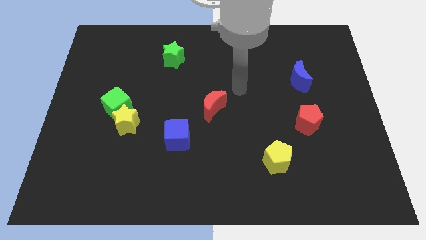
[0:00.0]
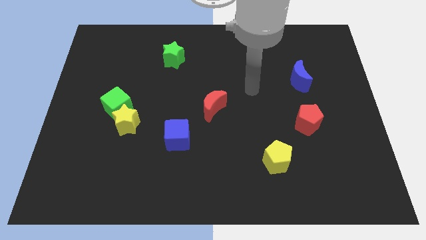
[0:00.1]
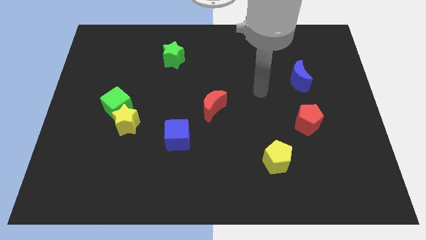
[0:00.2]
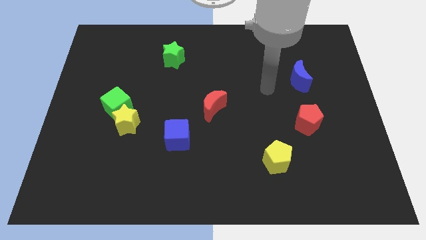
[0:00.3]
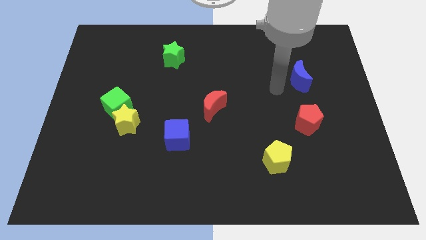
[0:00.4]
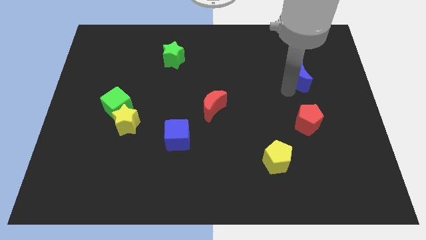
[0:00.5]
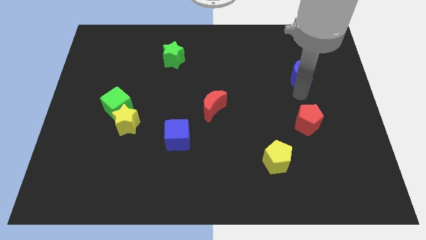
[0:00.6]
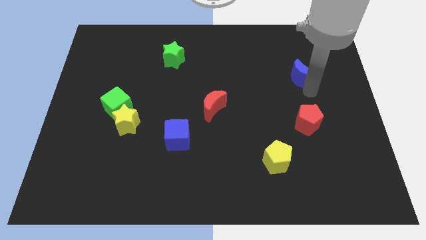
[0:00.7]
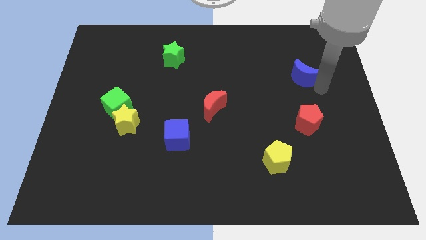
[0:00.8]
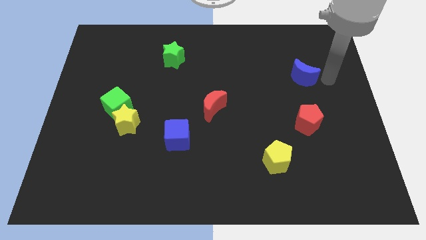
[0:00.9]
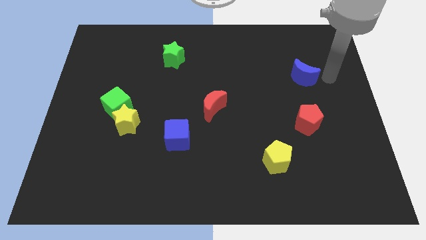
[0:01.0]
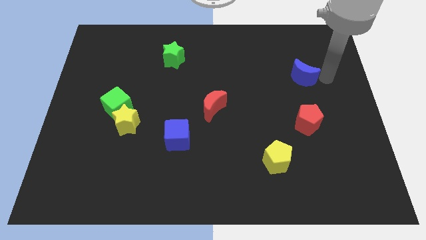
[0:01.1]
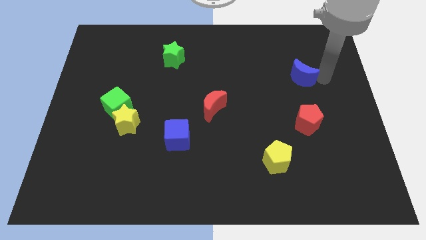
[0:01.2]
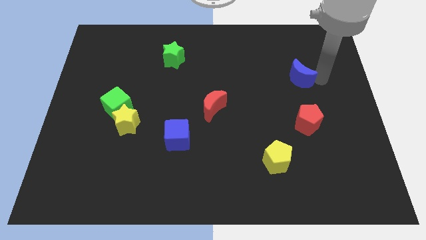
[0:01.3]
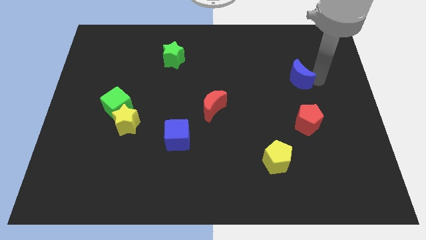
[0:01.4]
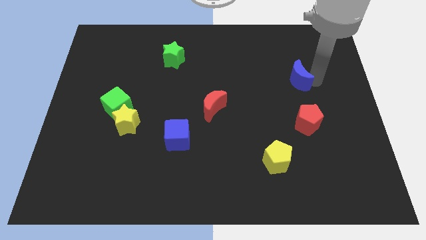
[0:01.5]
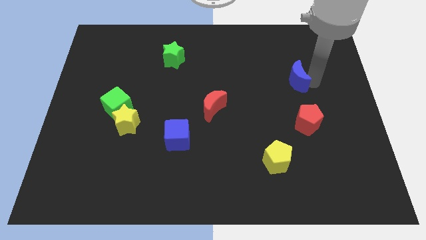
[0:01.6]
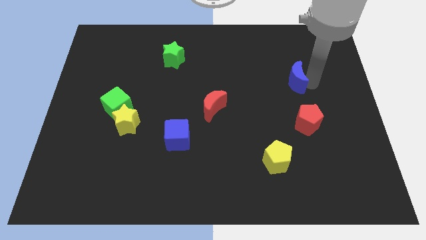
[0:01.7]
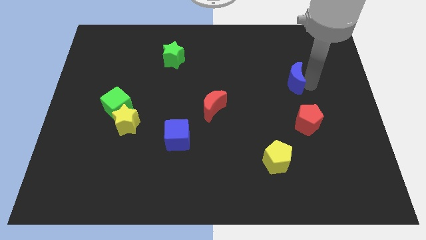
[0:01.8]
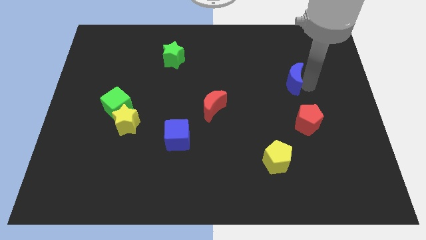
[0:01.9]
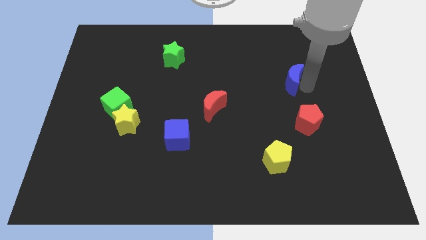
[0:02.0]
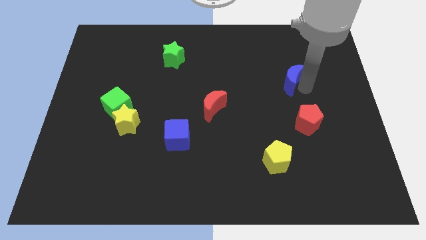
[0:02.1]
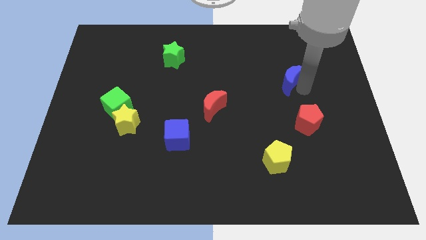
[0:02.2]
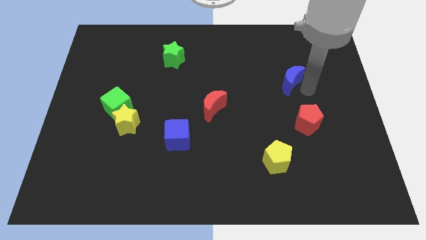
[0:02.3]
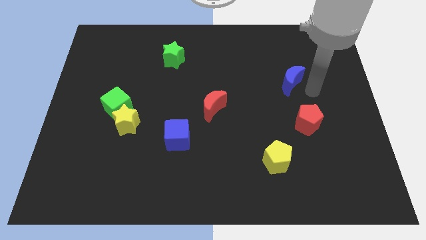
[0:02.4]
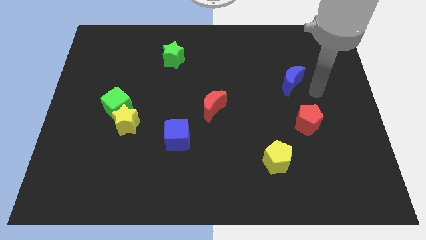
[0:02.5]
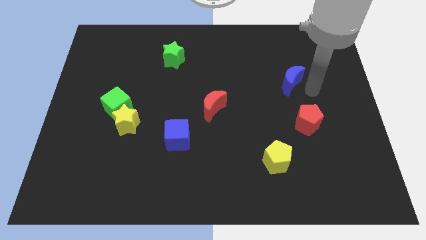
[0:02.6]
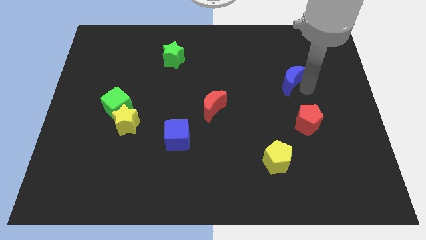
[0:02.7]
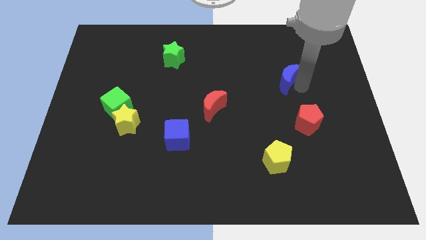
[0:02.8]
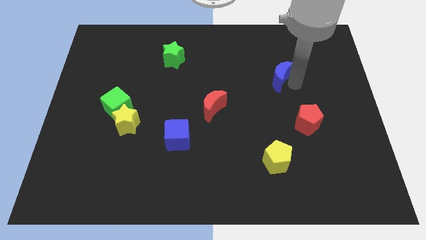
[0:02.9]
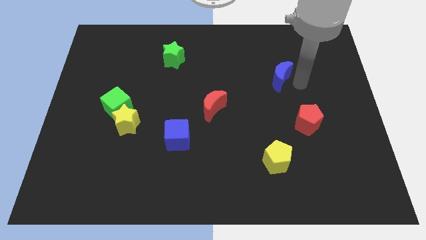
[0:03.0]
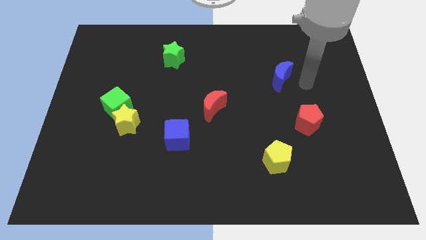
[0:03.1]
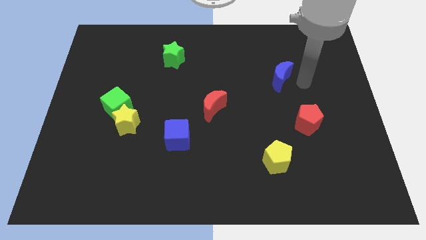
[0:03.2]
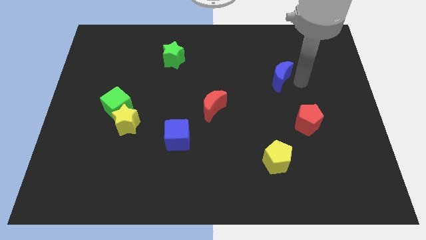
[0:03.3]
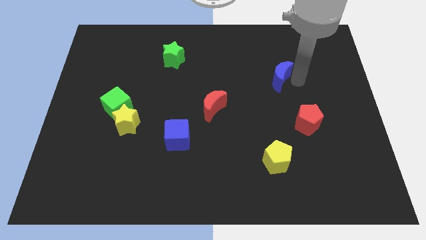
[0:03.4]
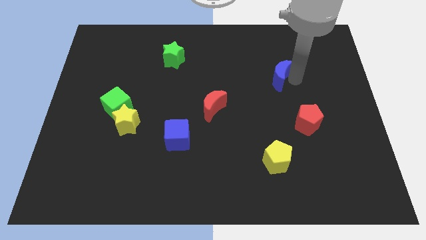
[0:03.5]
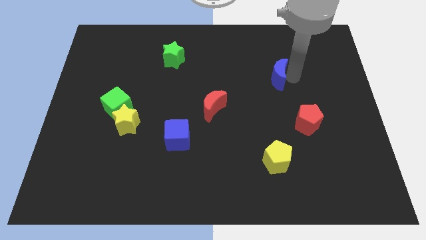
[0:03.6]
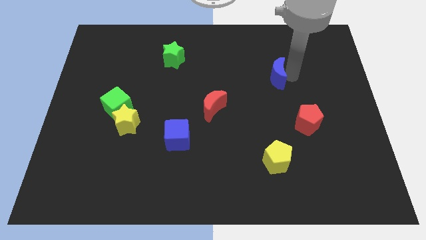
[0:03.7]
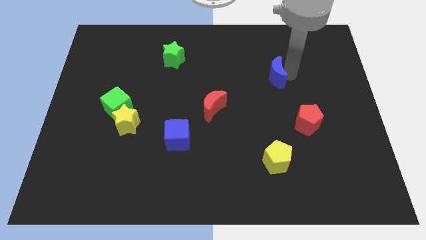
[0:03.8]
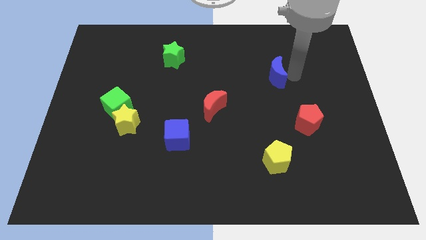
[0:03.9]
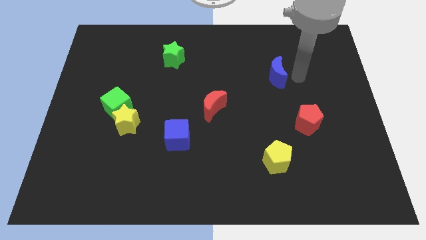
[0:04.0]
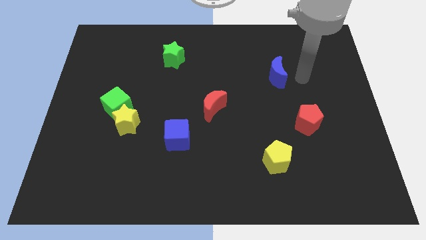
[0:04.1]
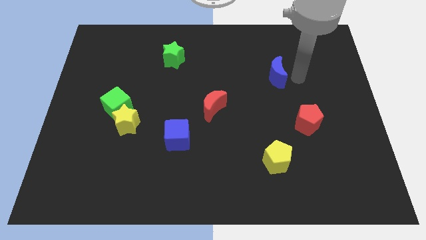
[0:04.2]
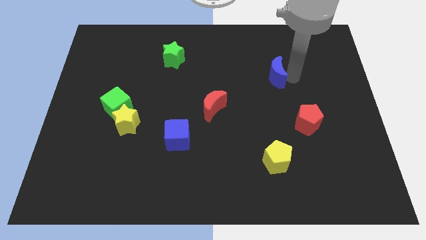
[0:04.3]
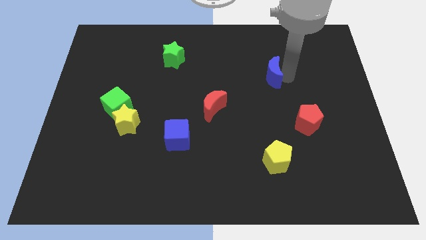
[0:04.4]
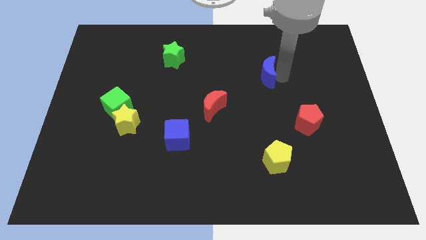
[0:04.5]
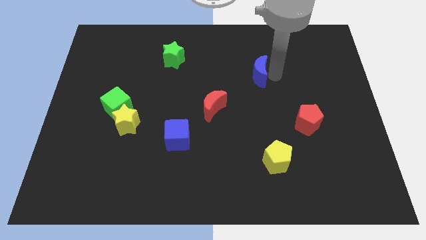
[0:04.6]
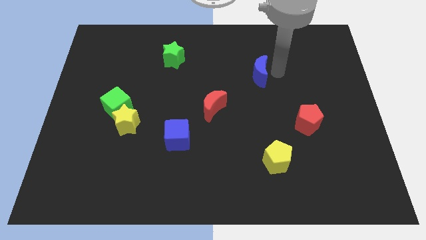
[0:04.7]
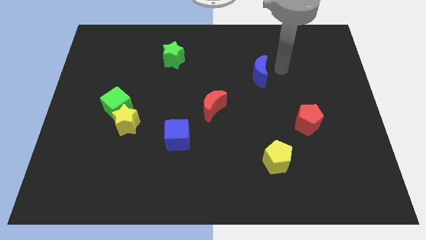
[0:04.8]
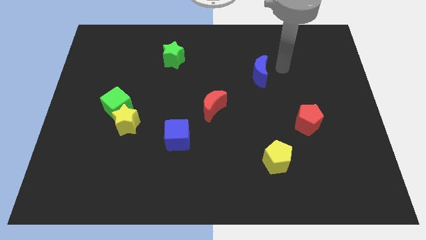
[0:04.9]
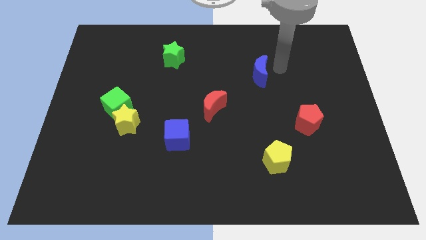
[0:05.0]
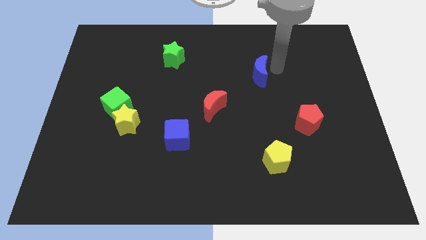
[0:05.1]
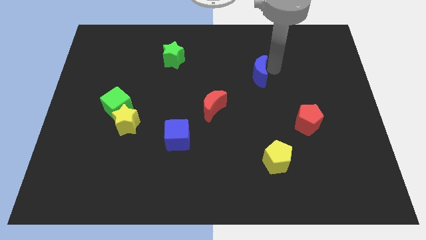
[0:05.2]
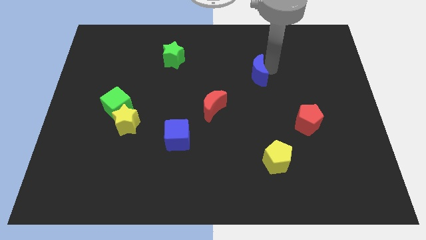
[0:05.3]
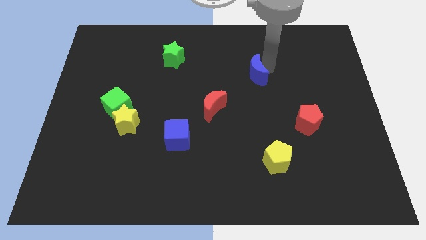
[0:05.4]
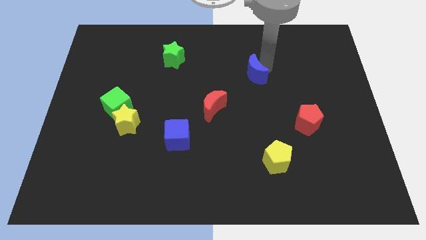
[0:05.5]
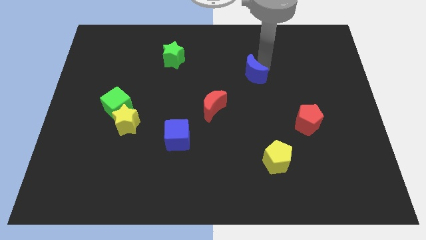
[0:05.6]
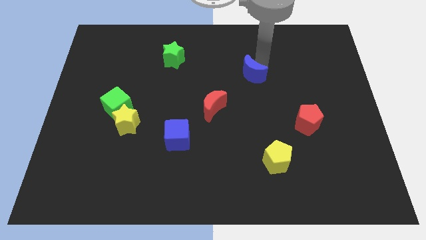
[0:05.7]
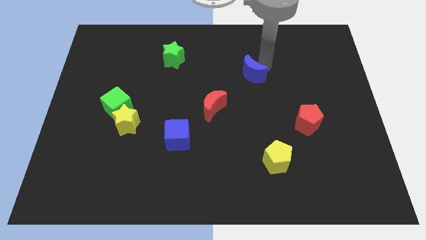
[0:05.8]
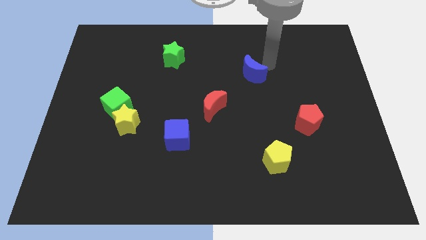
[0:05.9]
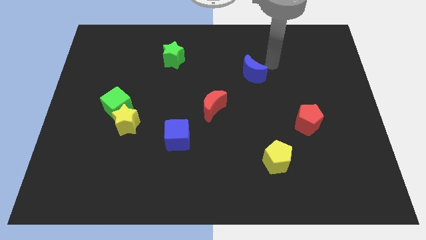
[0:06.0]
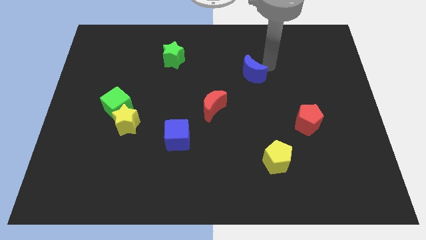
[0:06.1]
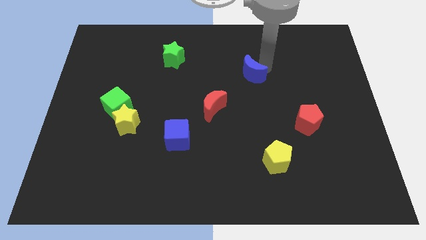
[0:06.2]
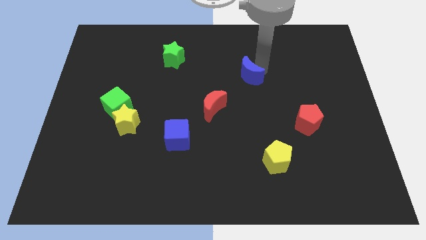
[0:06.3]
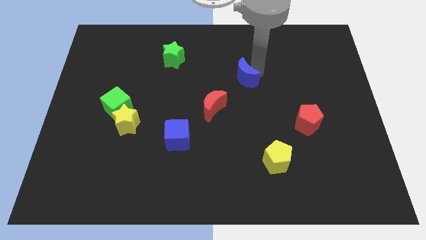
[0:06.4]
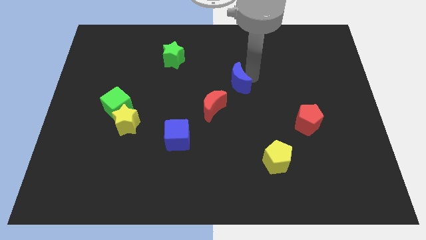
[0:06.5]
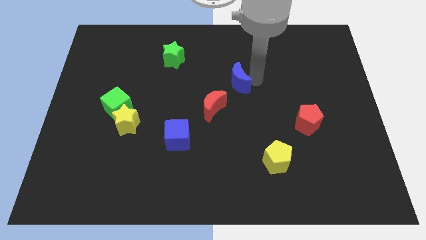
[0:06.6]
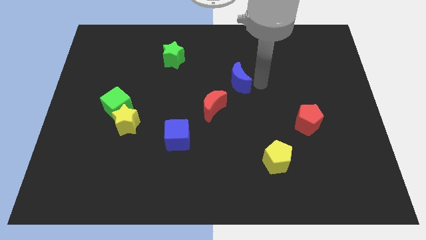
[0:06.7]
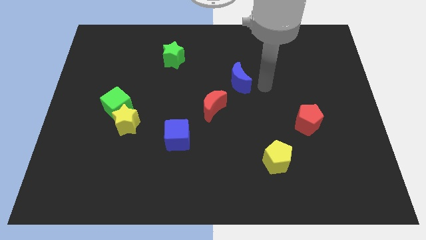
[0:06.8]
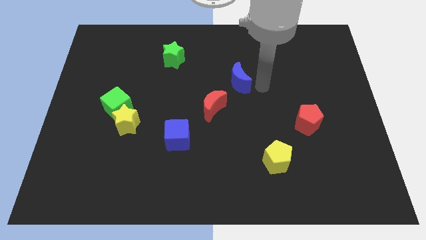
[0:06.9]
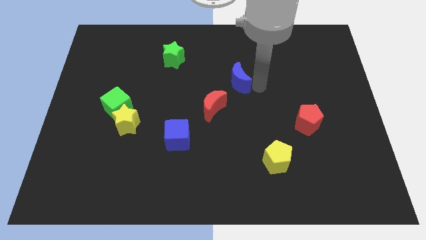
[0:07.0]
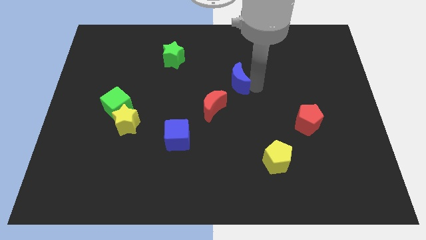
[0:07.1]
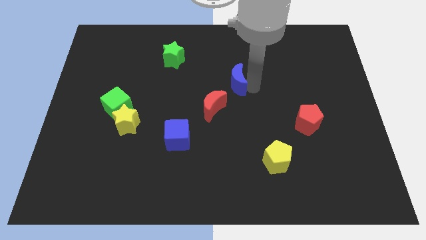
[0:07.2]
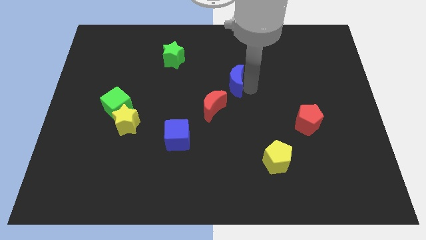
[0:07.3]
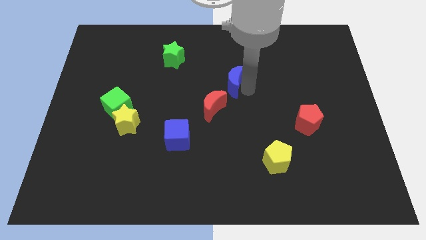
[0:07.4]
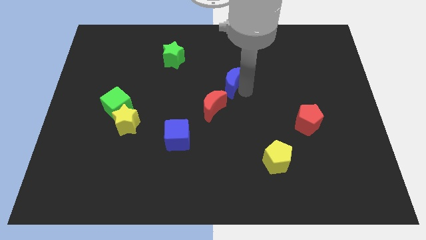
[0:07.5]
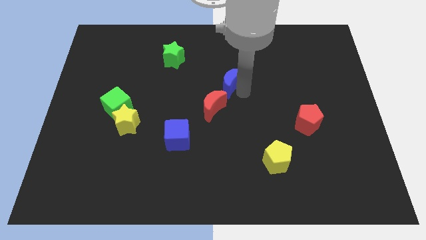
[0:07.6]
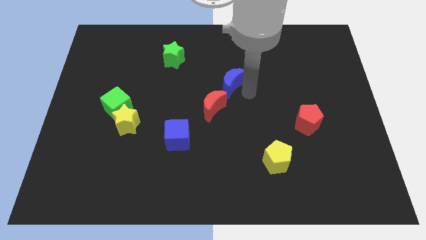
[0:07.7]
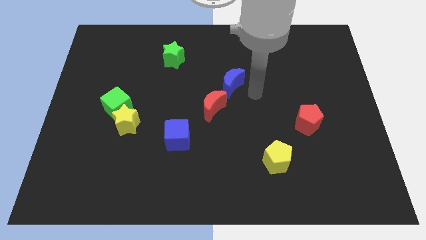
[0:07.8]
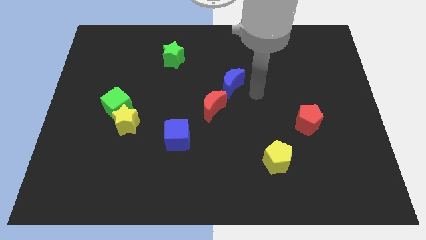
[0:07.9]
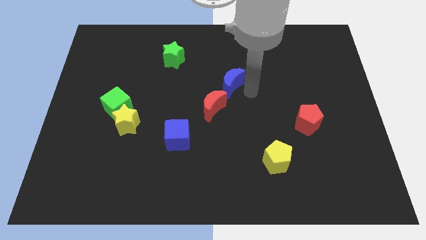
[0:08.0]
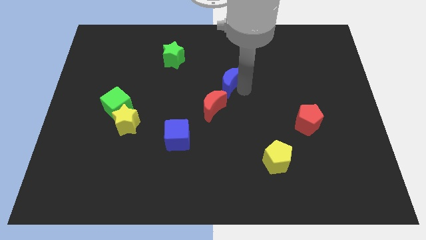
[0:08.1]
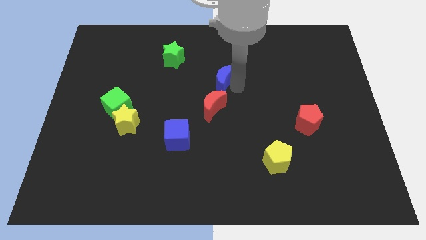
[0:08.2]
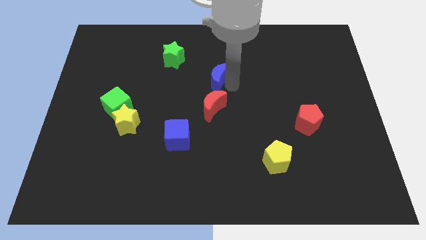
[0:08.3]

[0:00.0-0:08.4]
push the blue moon to the left
